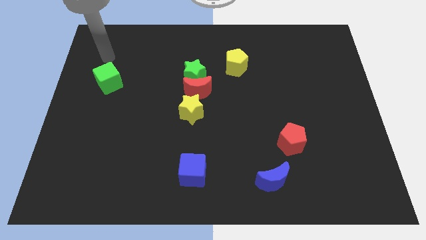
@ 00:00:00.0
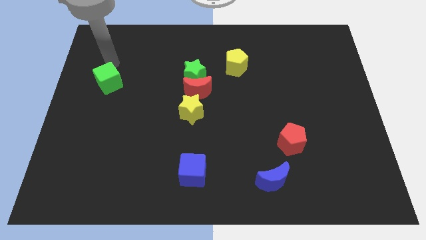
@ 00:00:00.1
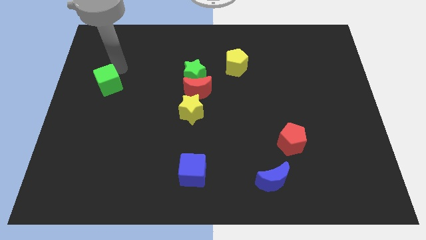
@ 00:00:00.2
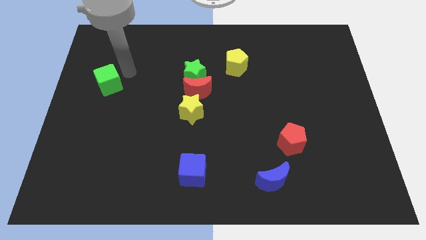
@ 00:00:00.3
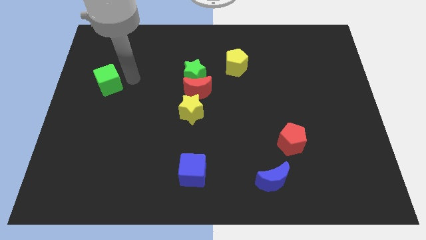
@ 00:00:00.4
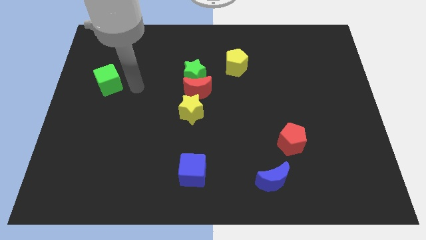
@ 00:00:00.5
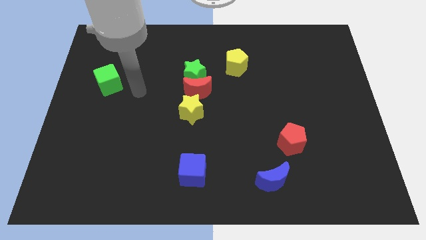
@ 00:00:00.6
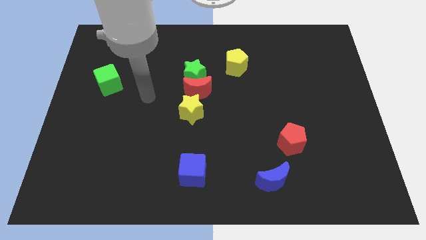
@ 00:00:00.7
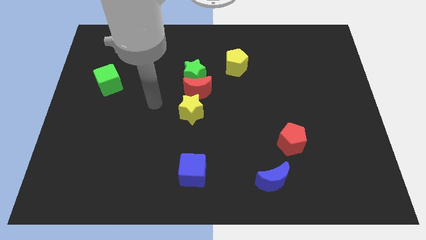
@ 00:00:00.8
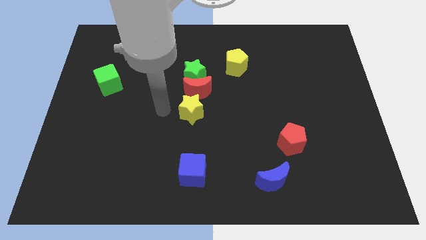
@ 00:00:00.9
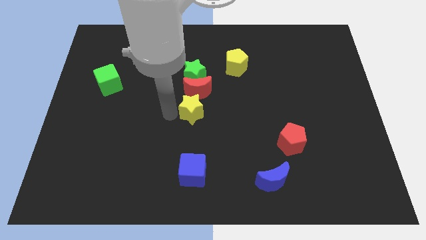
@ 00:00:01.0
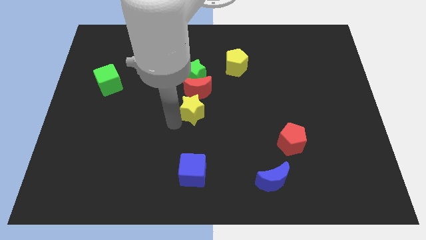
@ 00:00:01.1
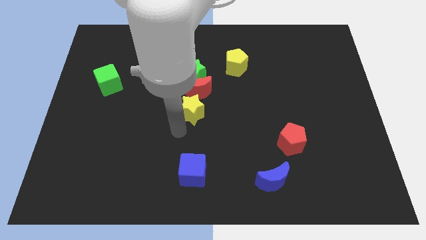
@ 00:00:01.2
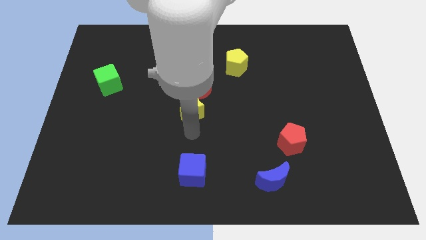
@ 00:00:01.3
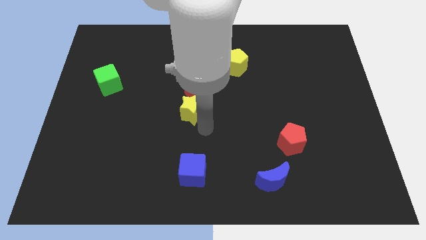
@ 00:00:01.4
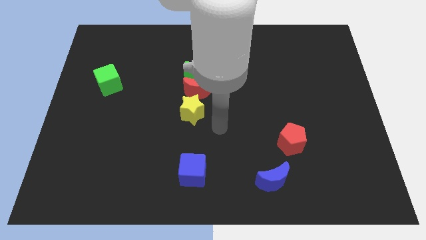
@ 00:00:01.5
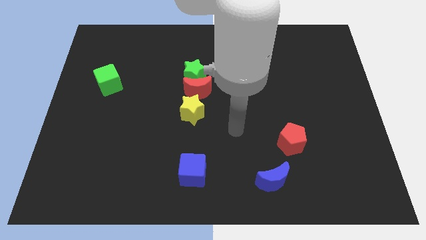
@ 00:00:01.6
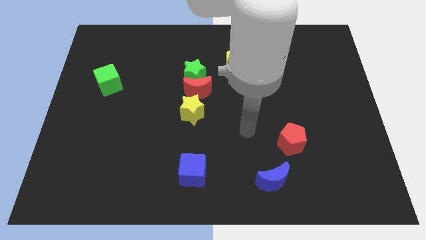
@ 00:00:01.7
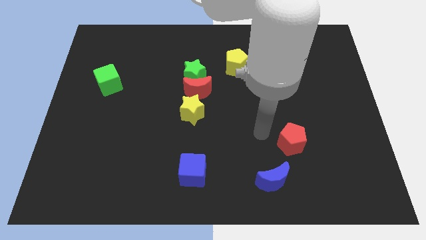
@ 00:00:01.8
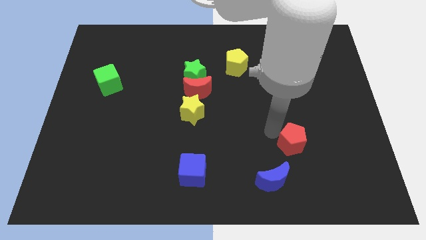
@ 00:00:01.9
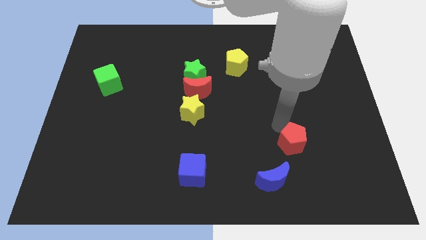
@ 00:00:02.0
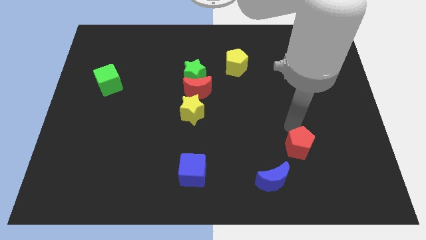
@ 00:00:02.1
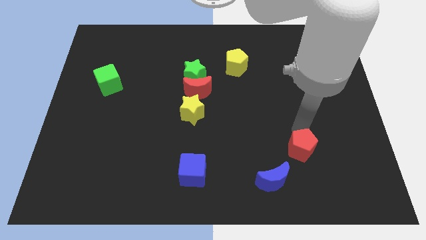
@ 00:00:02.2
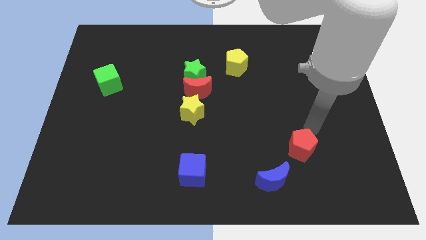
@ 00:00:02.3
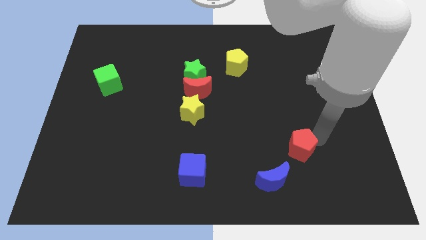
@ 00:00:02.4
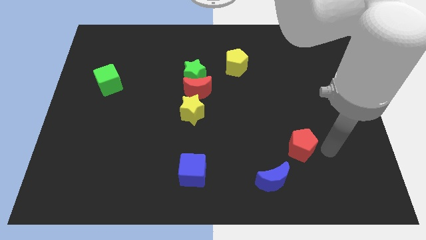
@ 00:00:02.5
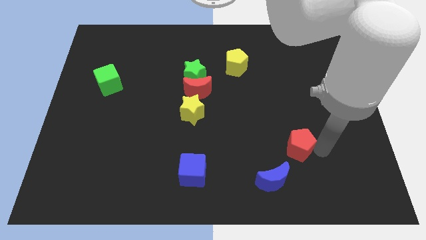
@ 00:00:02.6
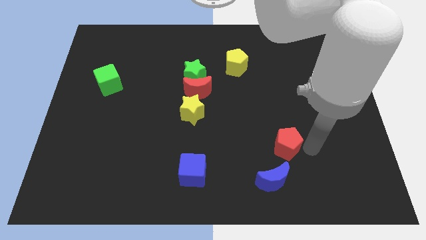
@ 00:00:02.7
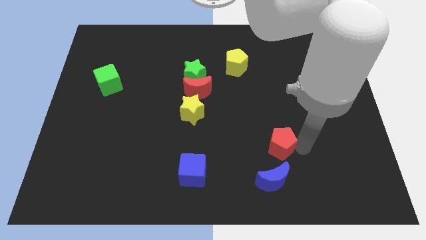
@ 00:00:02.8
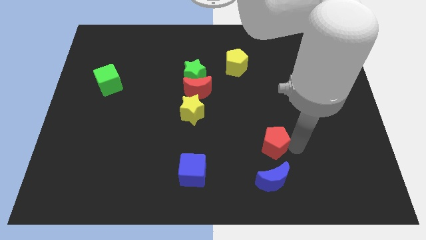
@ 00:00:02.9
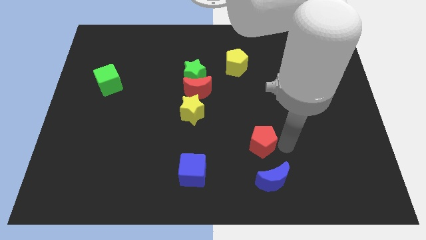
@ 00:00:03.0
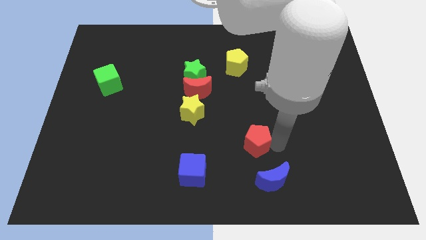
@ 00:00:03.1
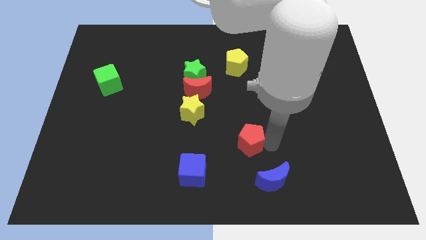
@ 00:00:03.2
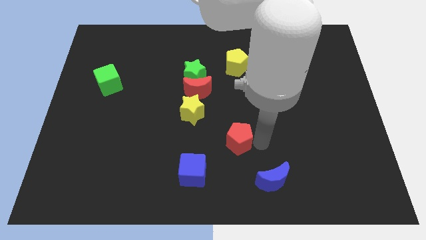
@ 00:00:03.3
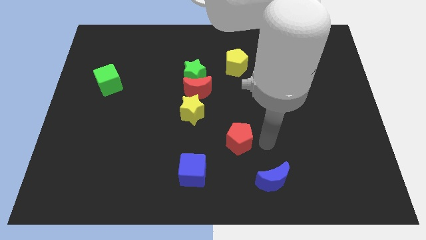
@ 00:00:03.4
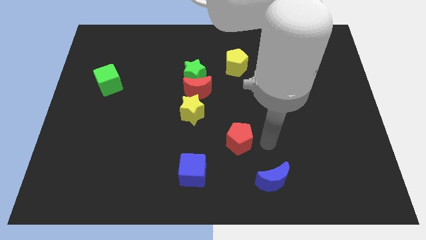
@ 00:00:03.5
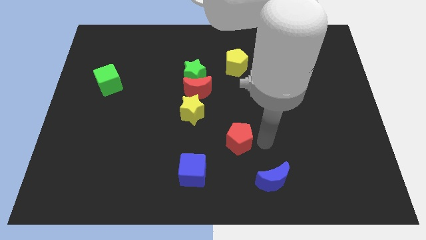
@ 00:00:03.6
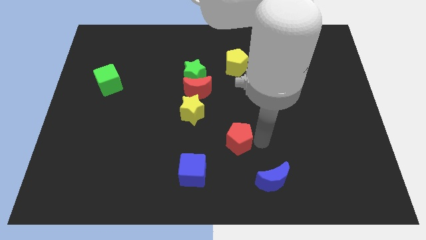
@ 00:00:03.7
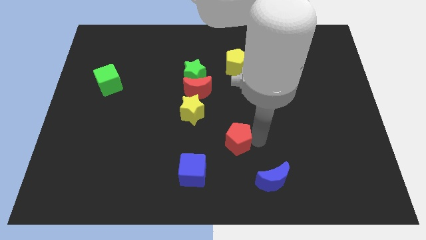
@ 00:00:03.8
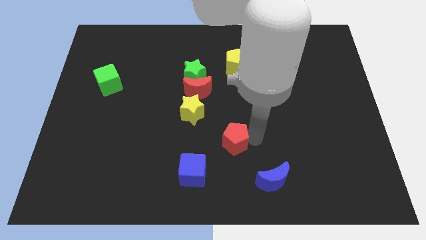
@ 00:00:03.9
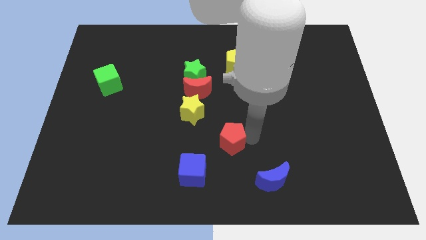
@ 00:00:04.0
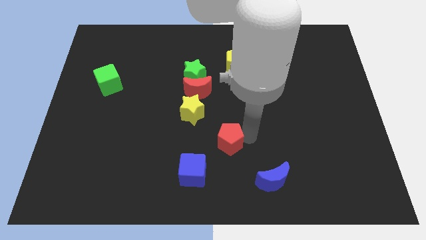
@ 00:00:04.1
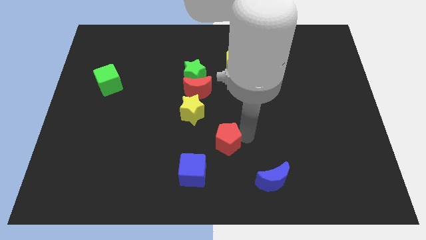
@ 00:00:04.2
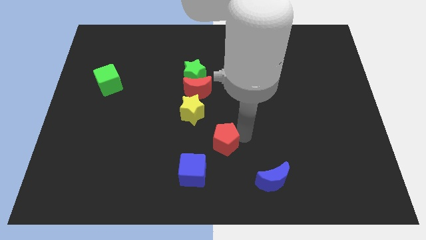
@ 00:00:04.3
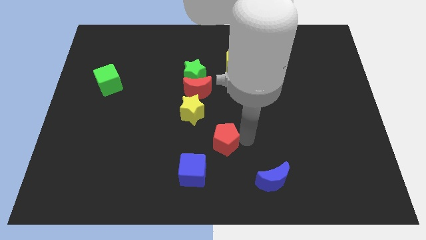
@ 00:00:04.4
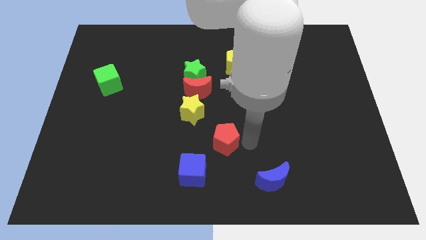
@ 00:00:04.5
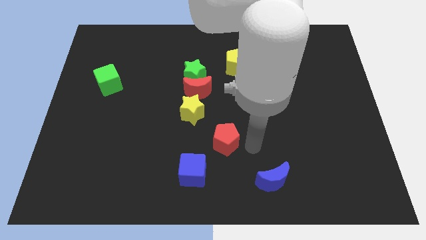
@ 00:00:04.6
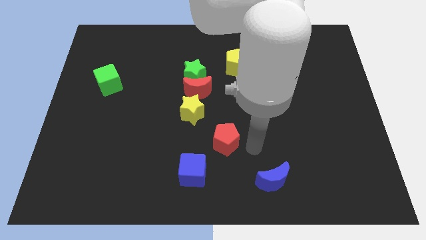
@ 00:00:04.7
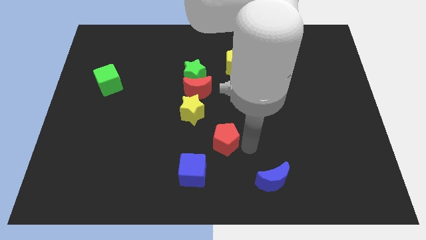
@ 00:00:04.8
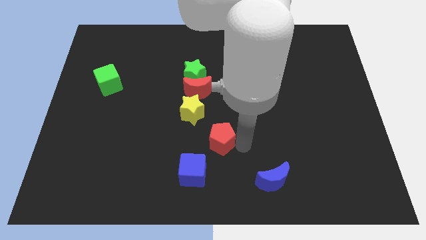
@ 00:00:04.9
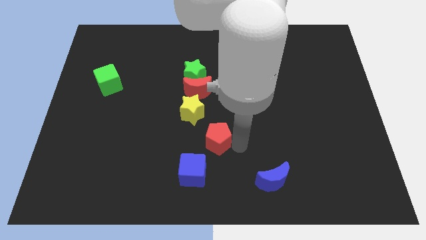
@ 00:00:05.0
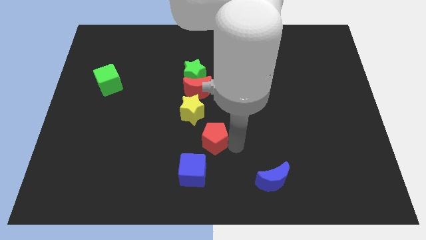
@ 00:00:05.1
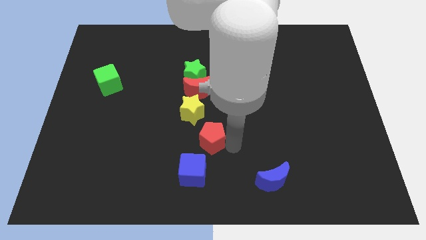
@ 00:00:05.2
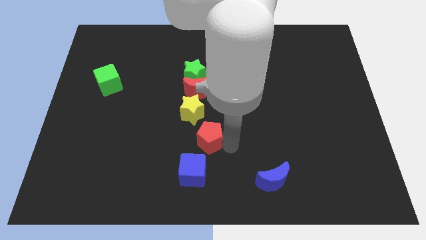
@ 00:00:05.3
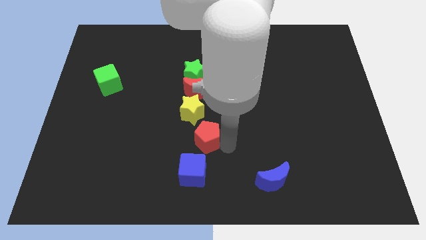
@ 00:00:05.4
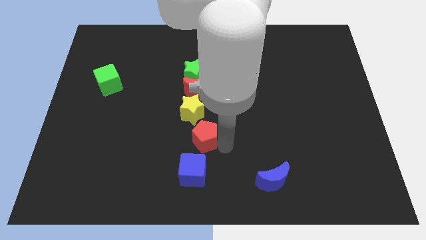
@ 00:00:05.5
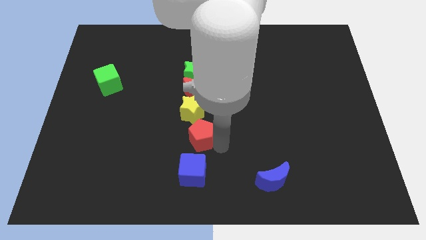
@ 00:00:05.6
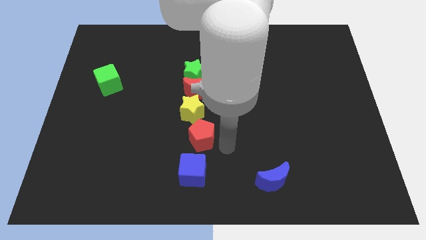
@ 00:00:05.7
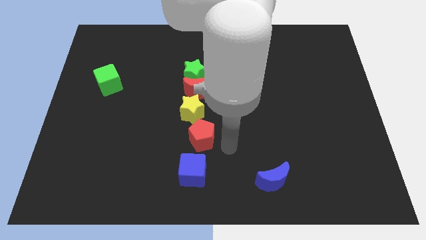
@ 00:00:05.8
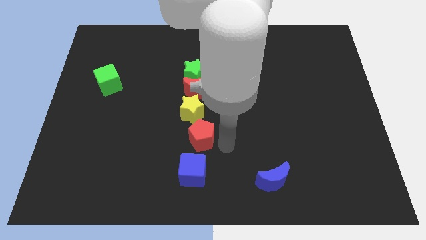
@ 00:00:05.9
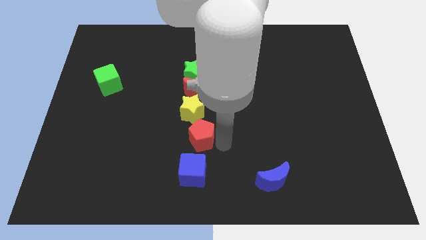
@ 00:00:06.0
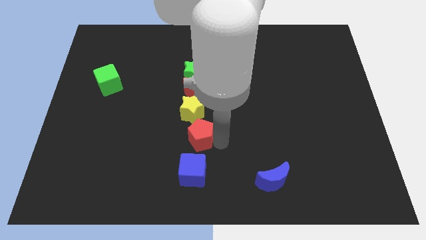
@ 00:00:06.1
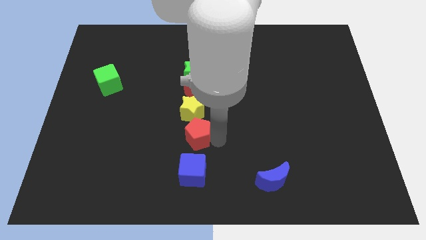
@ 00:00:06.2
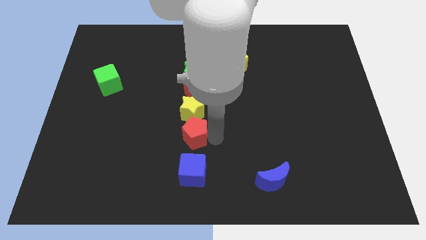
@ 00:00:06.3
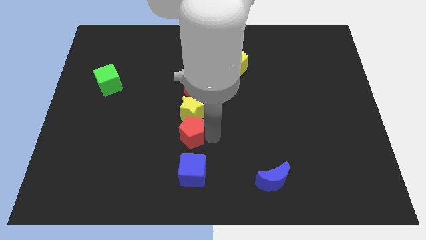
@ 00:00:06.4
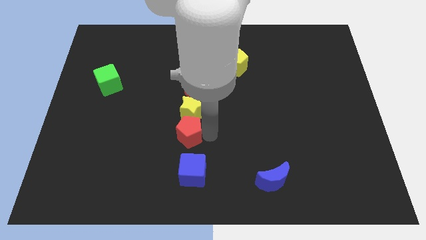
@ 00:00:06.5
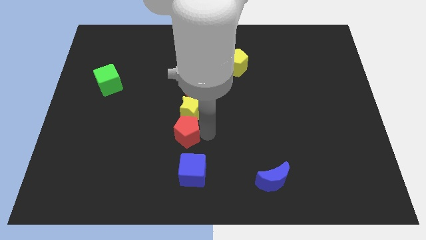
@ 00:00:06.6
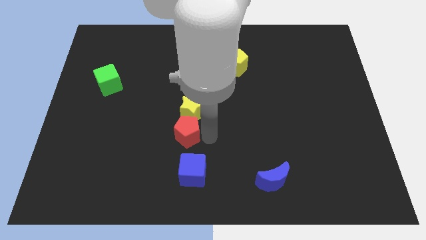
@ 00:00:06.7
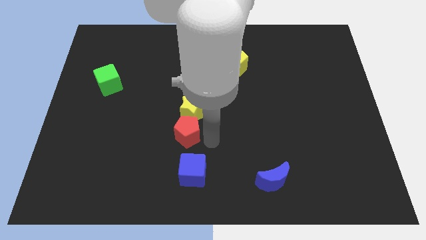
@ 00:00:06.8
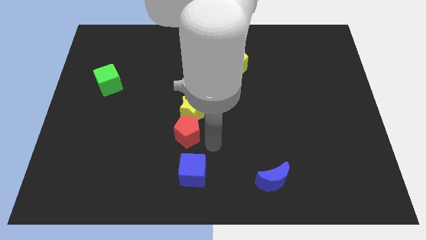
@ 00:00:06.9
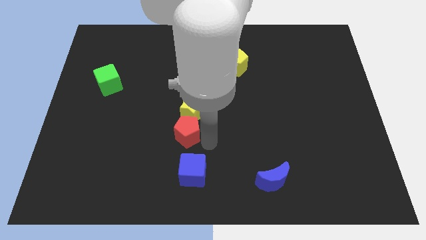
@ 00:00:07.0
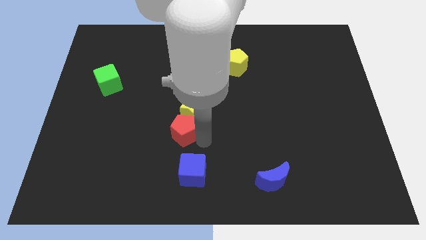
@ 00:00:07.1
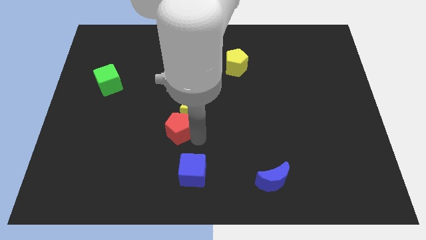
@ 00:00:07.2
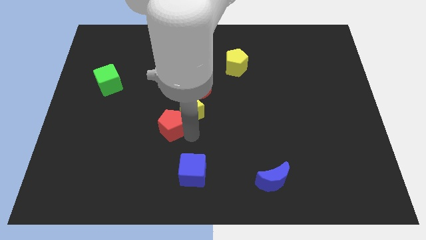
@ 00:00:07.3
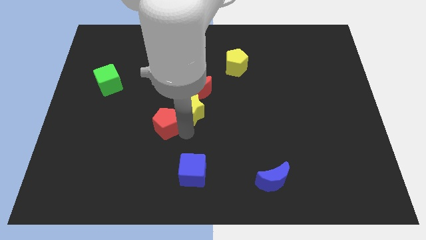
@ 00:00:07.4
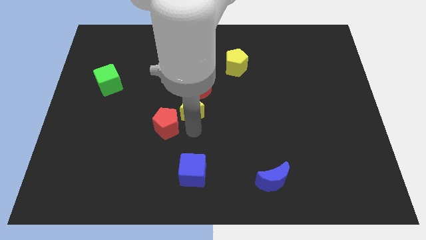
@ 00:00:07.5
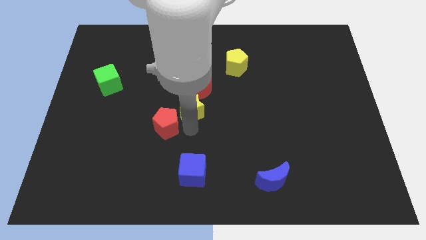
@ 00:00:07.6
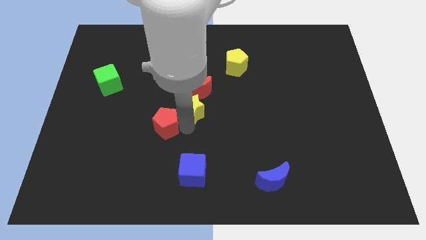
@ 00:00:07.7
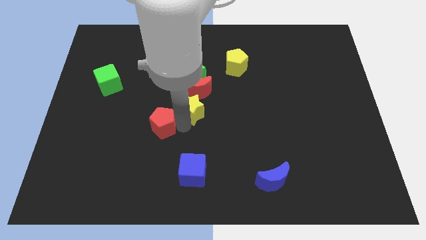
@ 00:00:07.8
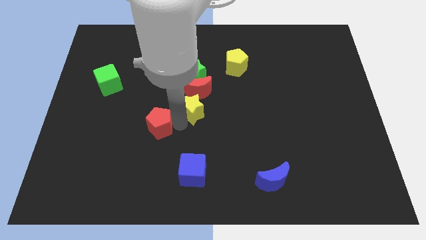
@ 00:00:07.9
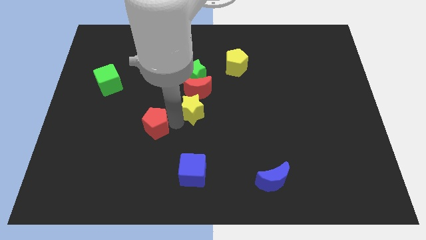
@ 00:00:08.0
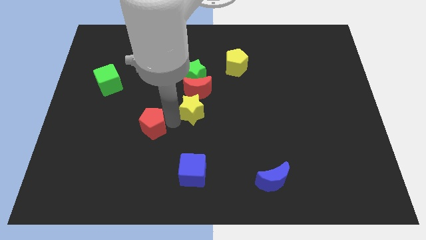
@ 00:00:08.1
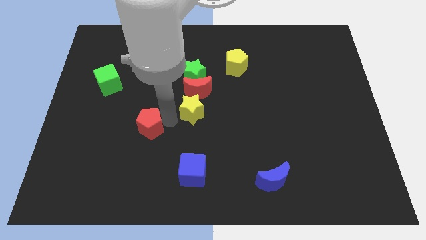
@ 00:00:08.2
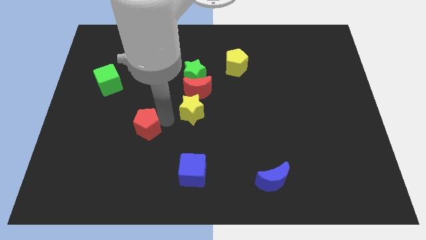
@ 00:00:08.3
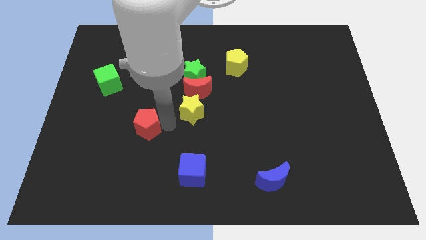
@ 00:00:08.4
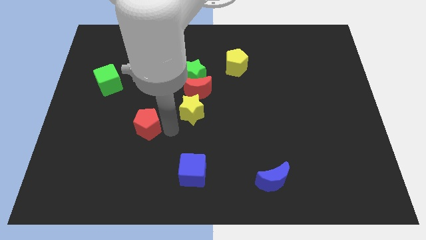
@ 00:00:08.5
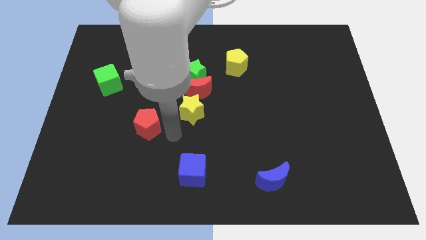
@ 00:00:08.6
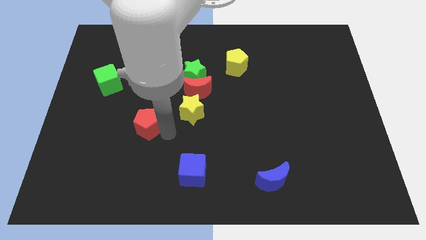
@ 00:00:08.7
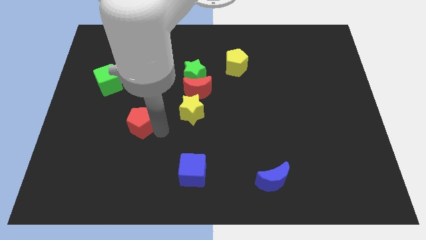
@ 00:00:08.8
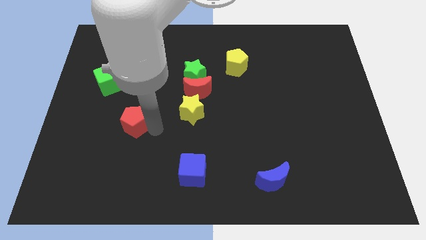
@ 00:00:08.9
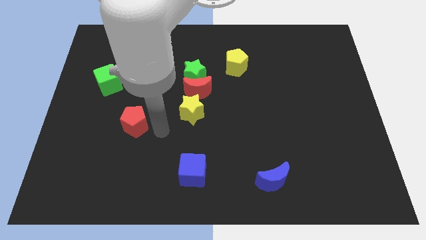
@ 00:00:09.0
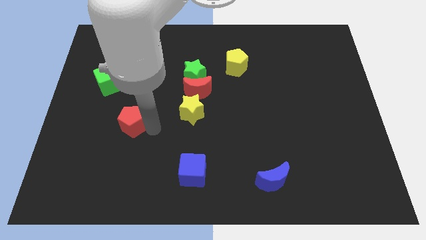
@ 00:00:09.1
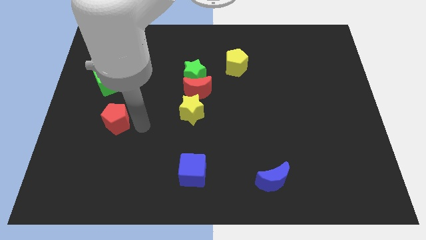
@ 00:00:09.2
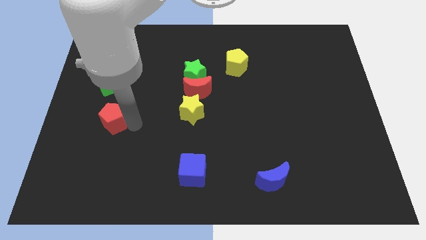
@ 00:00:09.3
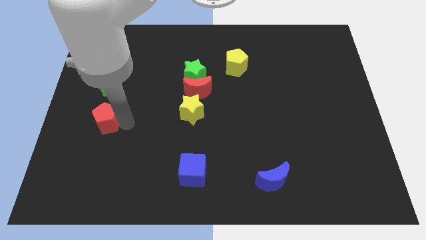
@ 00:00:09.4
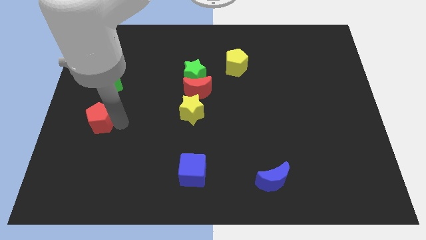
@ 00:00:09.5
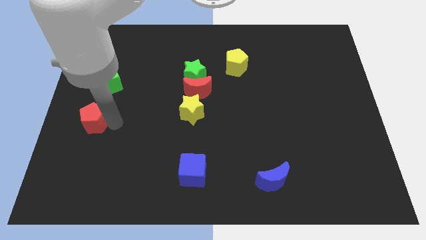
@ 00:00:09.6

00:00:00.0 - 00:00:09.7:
put the red pentagon to the center left
